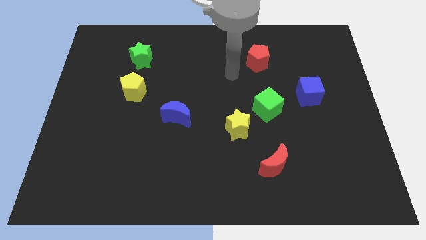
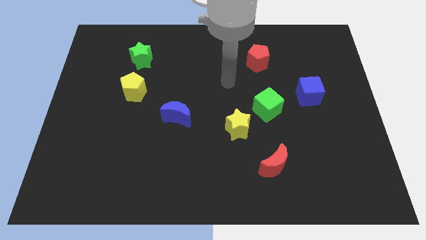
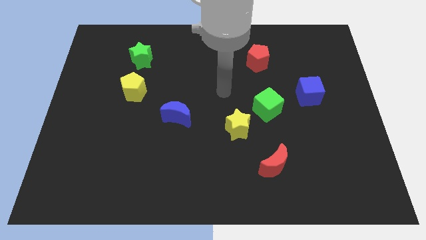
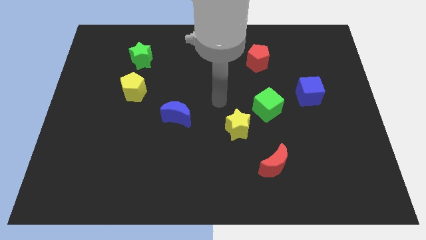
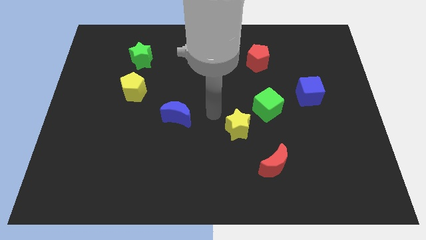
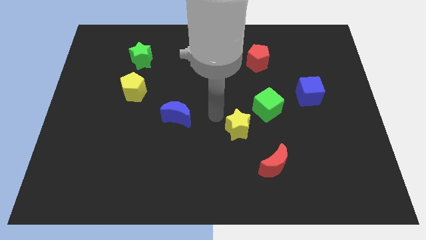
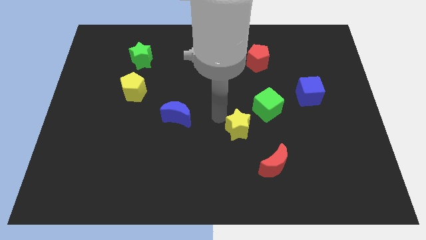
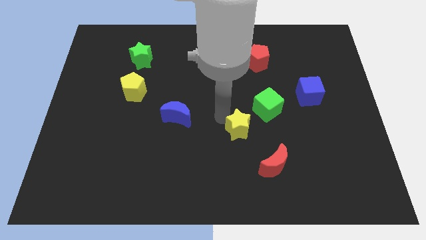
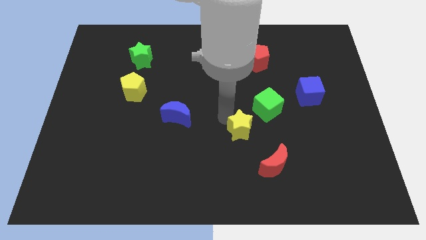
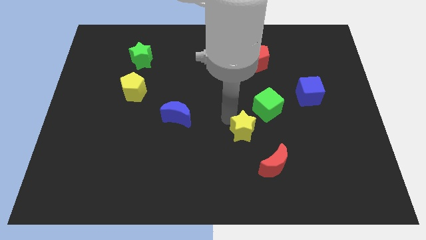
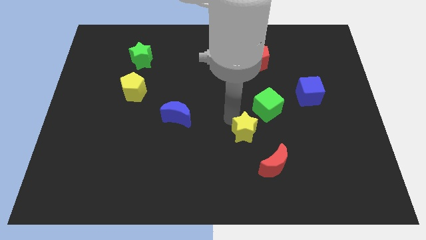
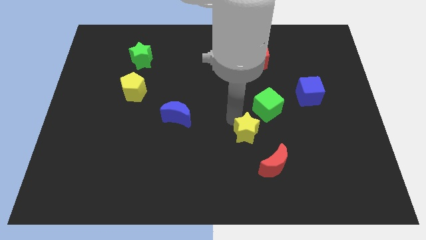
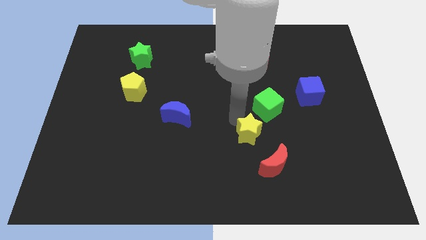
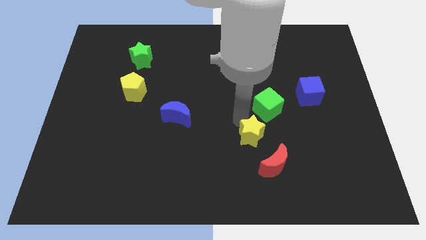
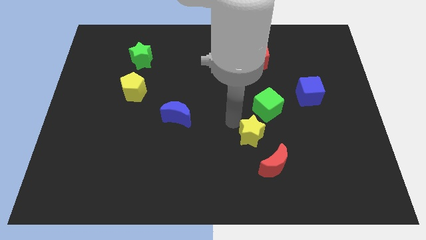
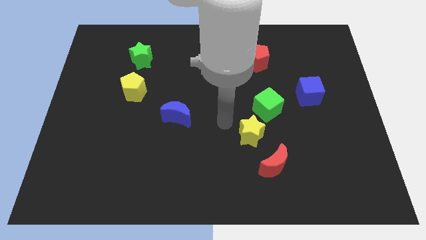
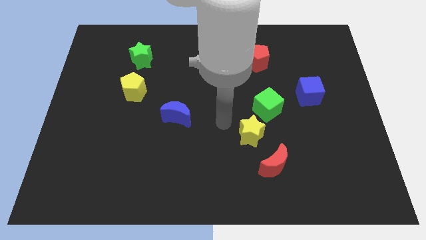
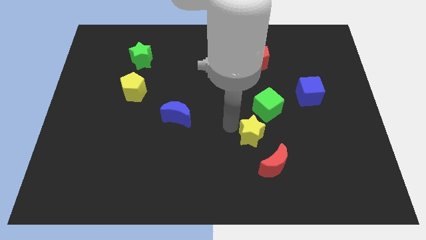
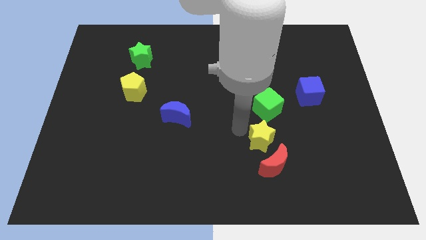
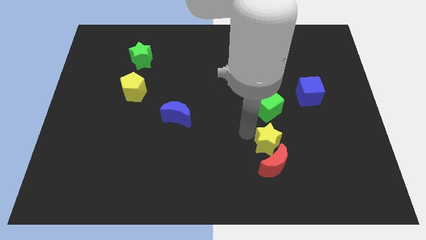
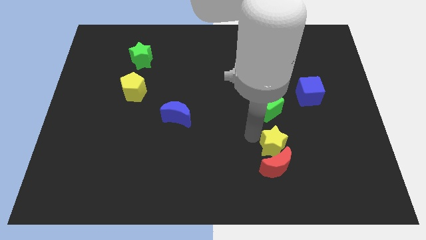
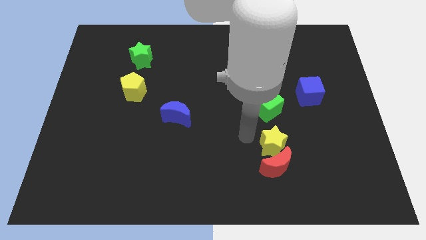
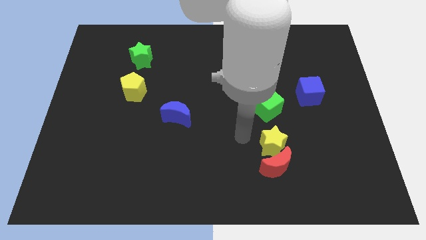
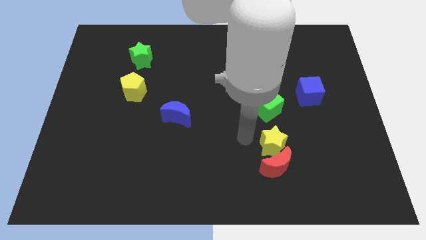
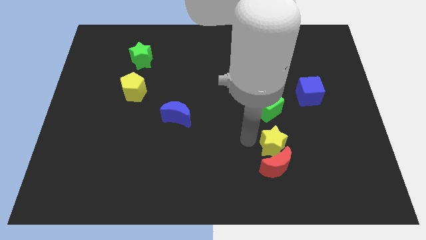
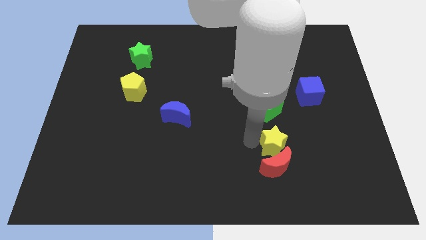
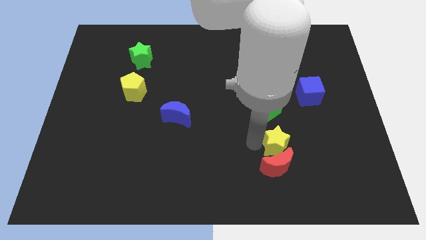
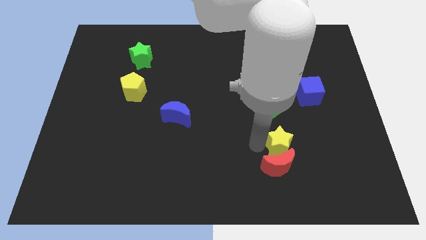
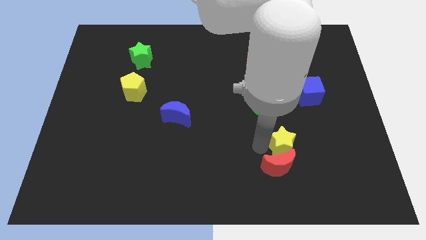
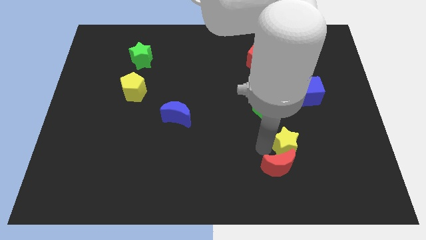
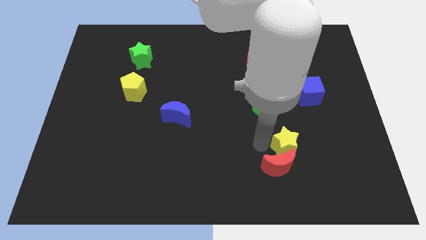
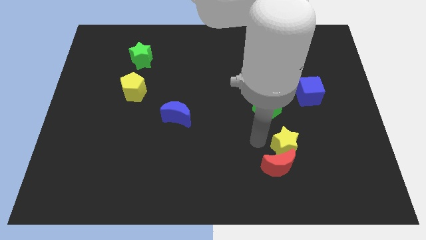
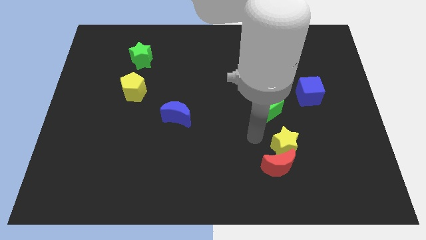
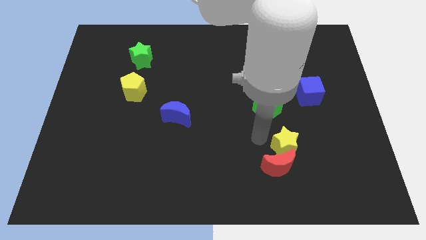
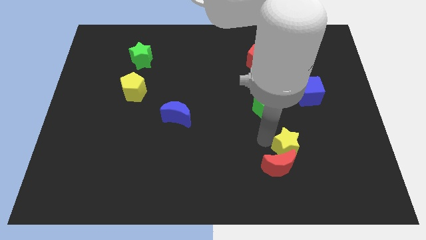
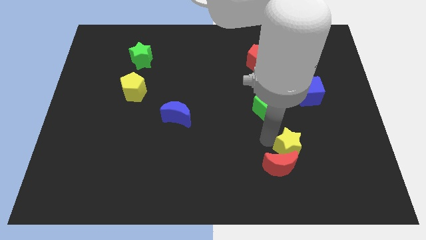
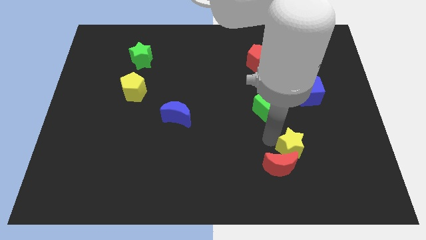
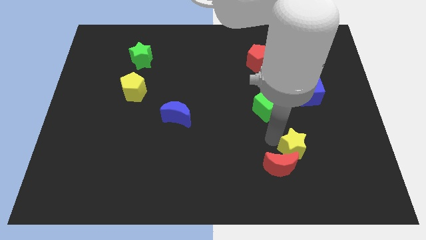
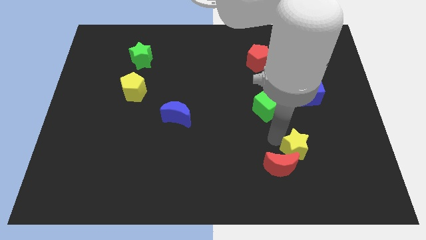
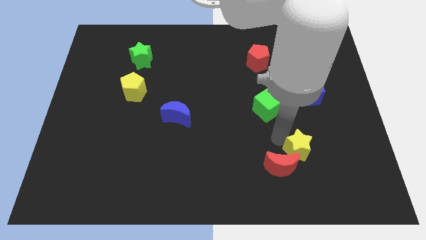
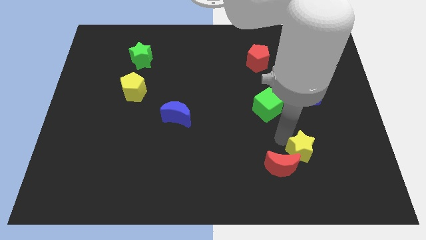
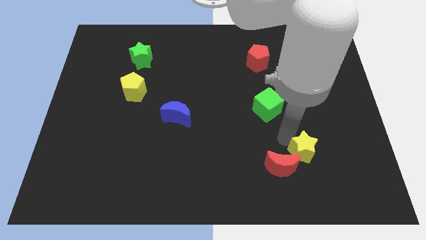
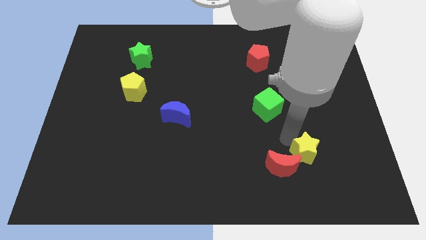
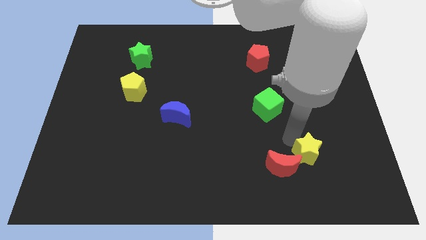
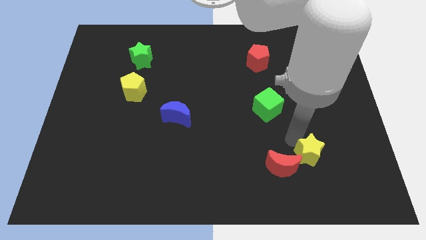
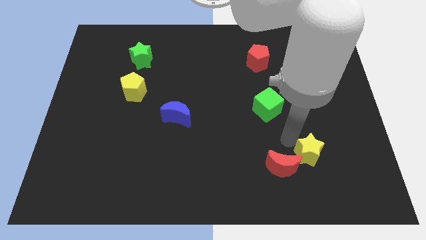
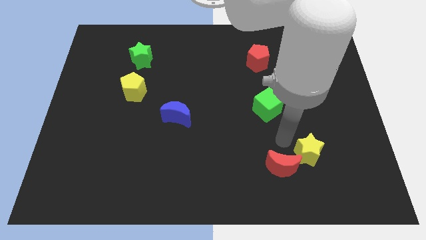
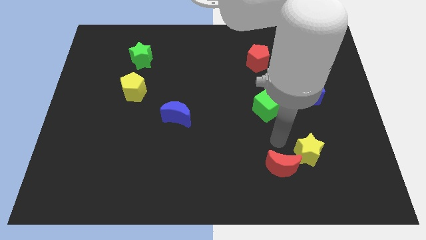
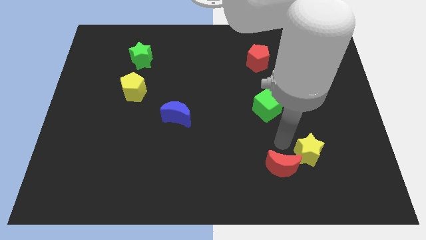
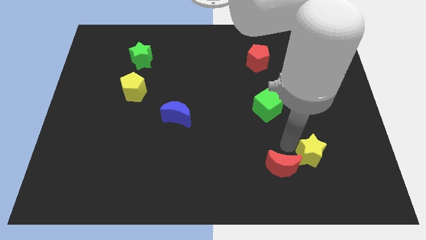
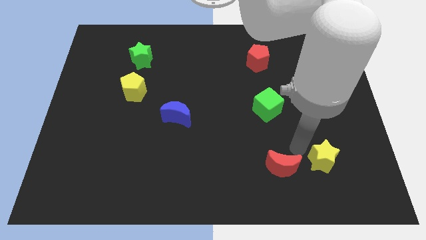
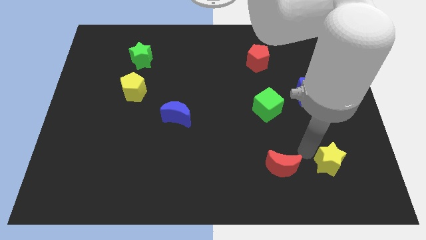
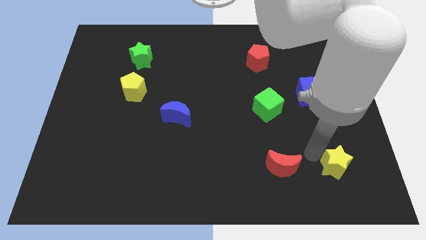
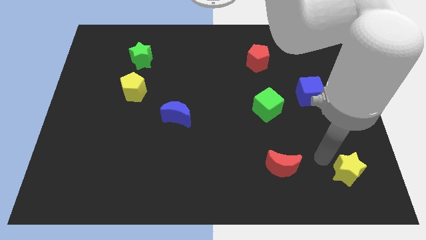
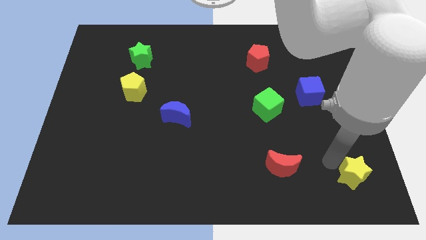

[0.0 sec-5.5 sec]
put the yellow star to the lower right corner

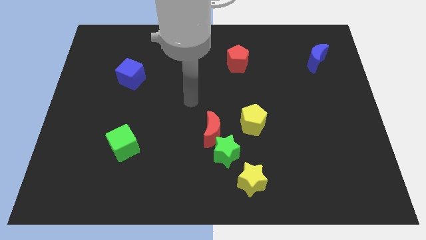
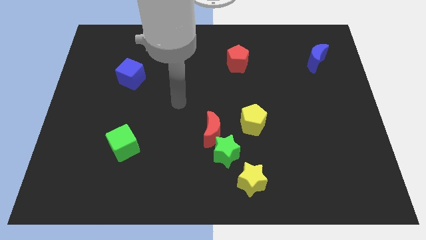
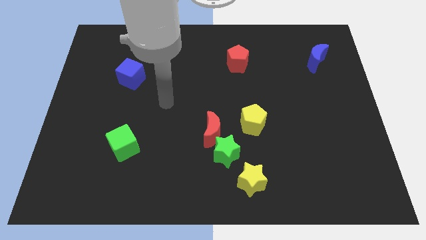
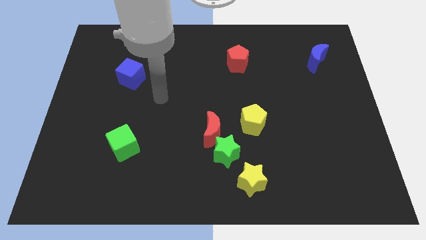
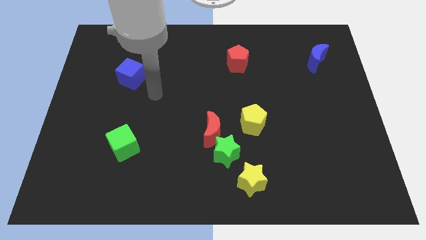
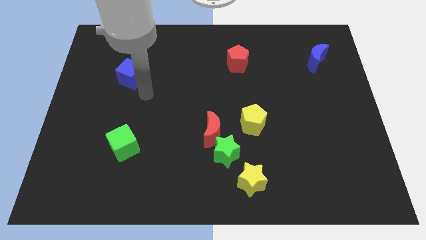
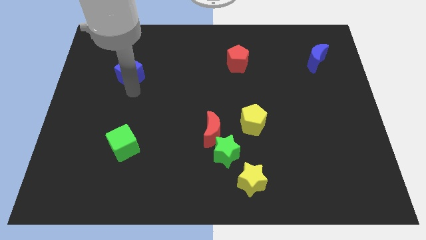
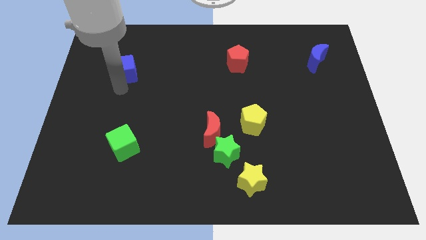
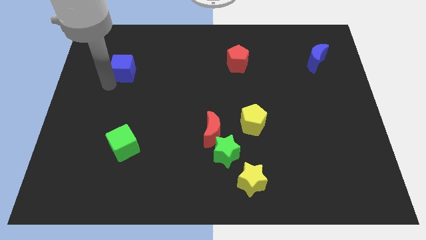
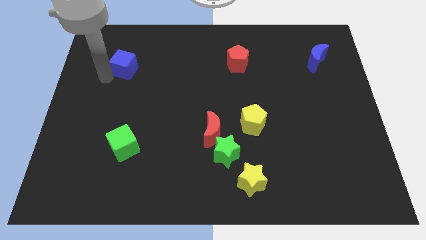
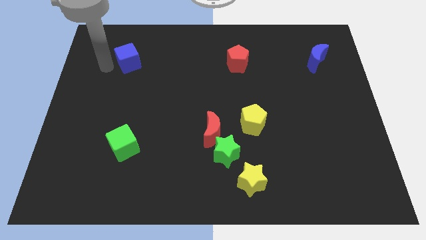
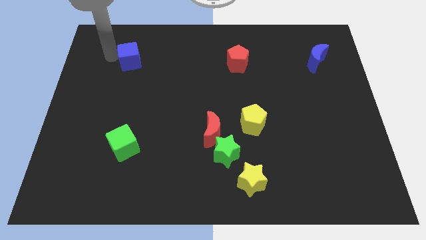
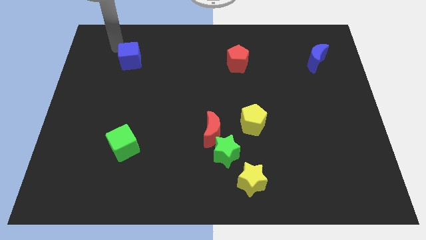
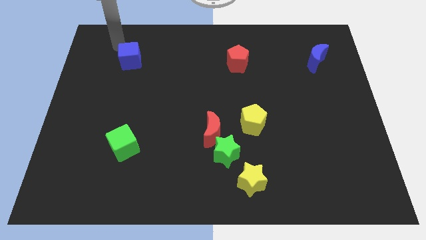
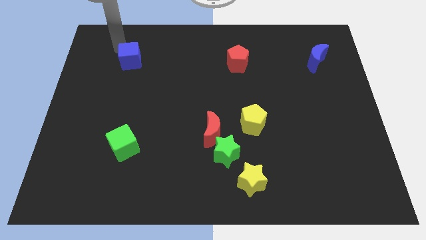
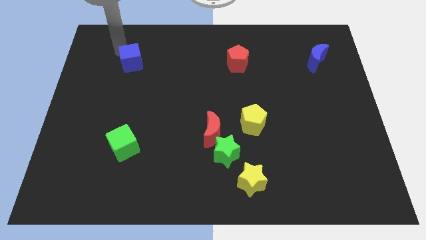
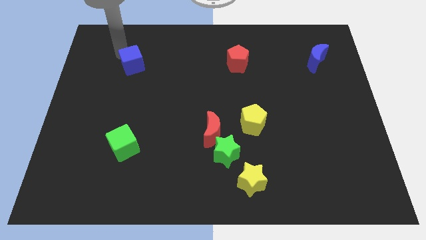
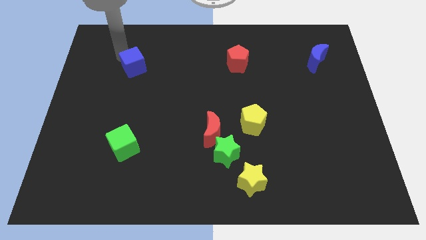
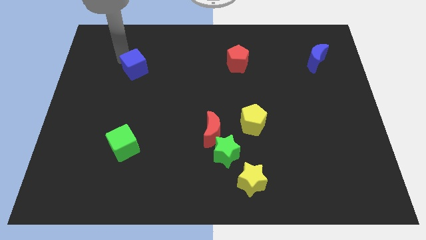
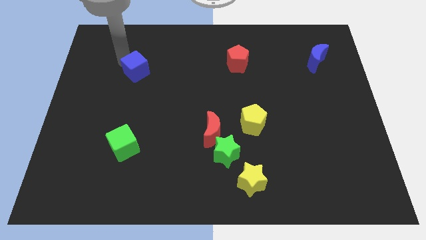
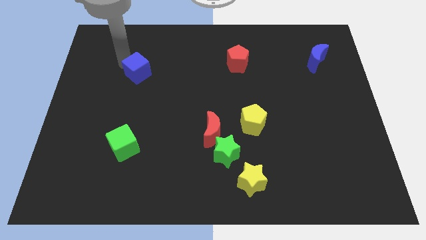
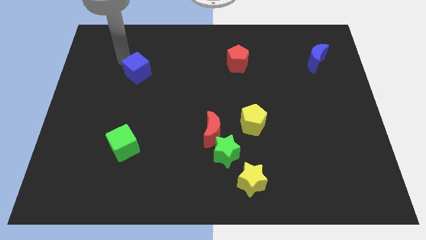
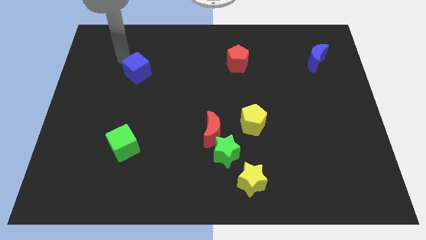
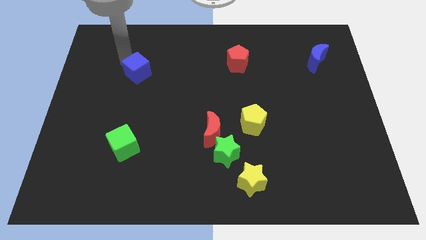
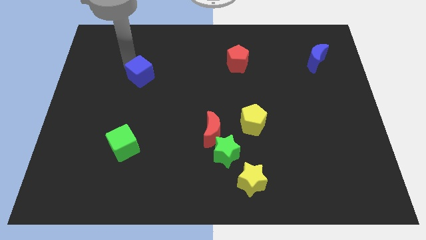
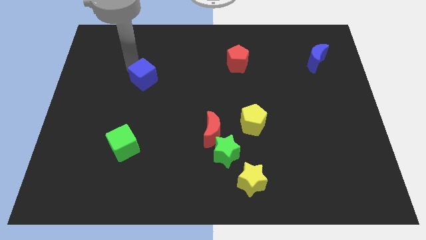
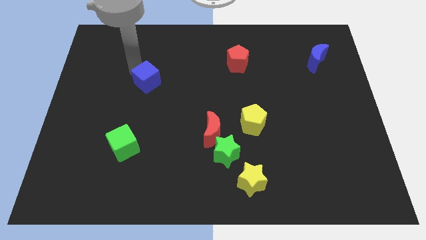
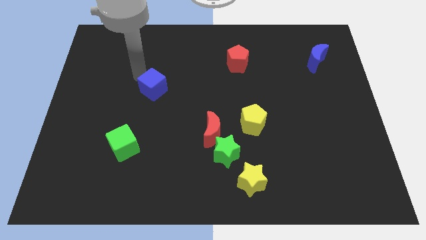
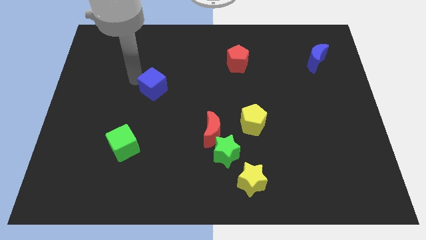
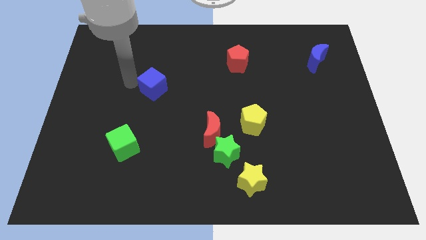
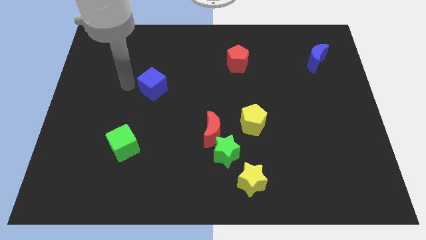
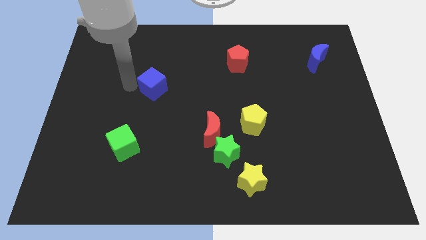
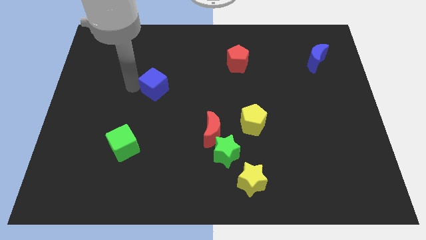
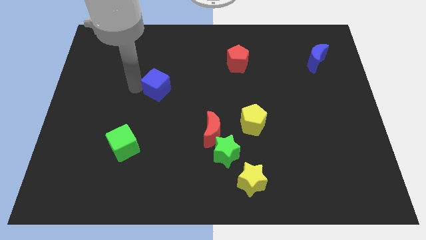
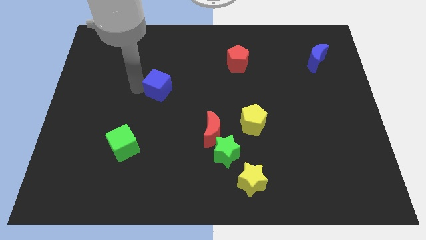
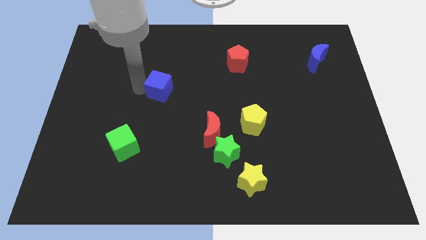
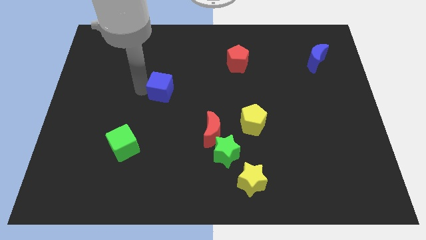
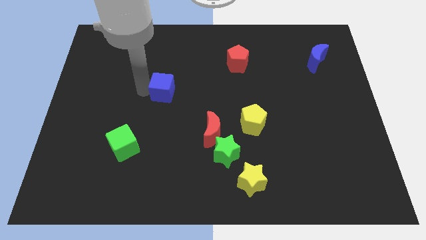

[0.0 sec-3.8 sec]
slide the blue cube to the center of the board
